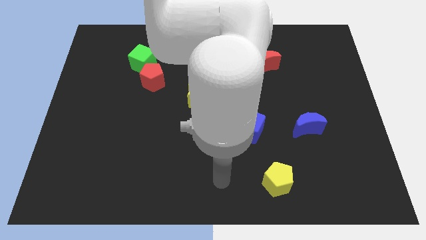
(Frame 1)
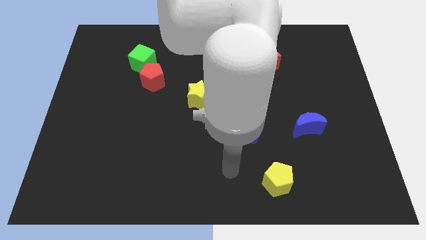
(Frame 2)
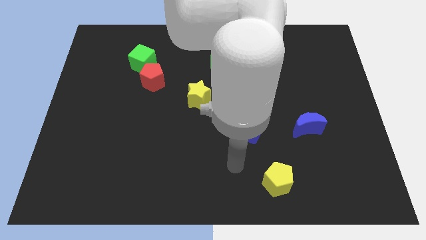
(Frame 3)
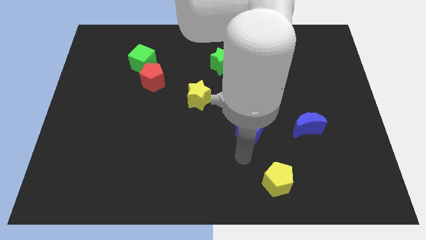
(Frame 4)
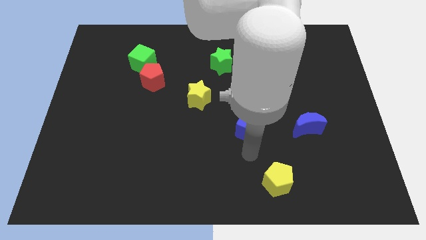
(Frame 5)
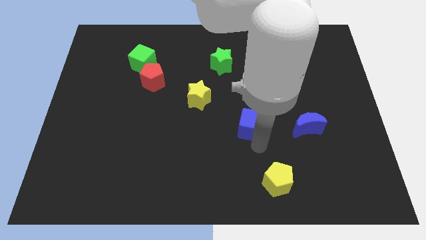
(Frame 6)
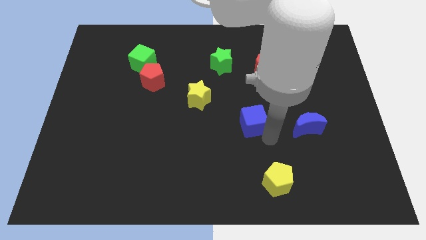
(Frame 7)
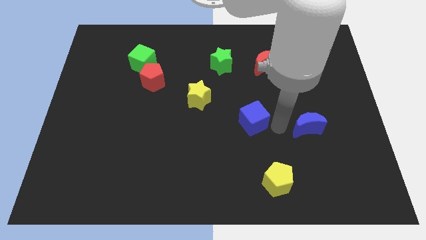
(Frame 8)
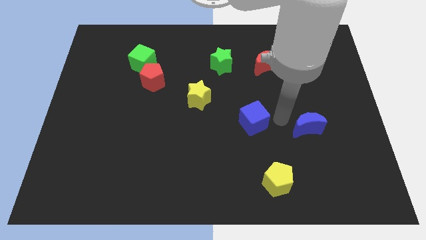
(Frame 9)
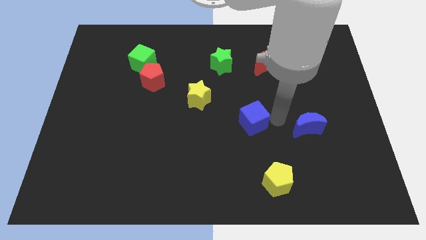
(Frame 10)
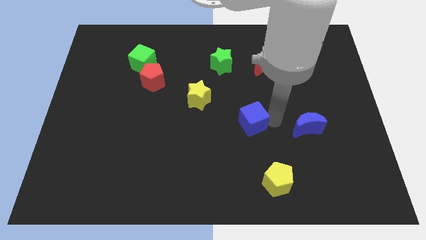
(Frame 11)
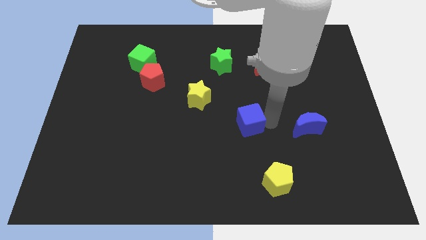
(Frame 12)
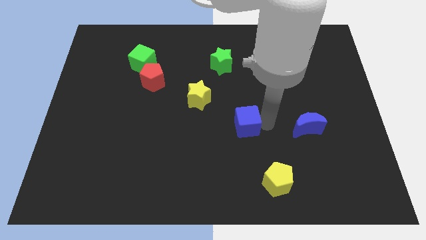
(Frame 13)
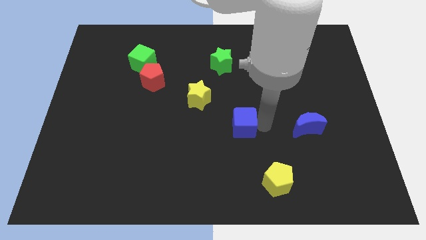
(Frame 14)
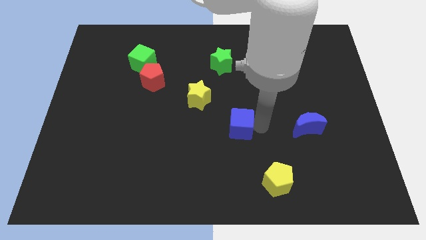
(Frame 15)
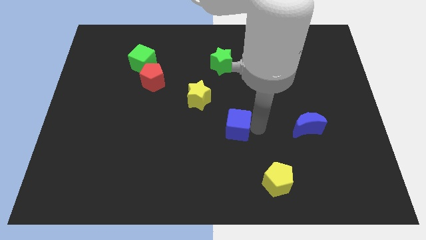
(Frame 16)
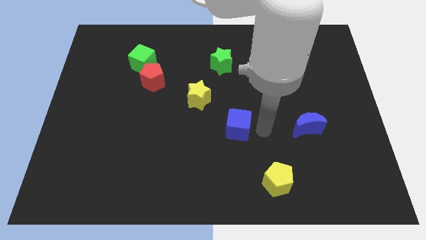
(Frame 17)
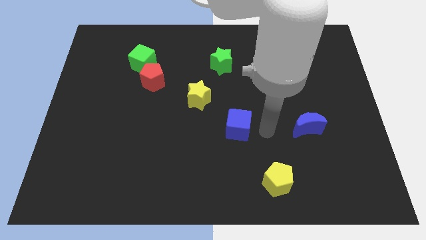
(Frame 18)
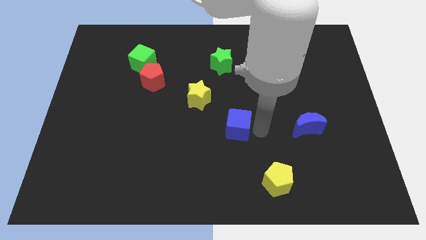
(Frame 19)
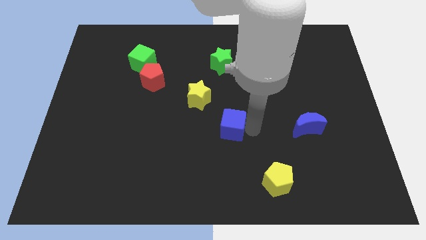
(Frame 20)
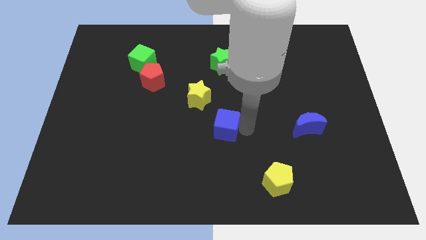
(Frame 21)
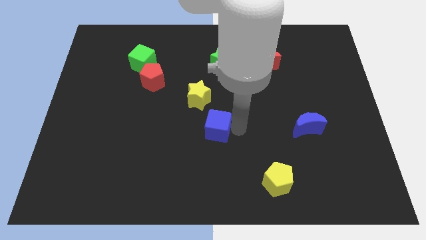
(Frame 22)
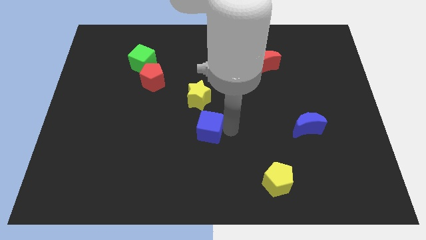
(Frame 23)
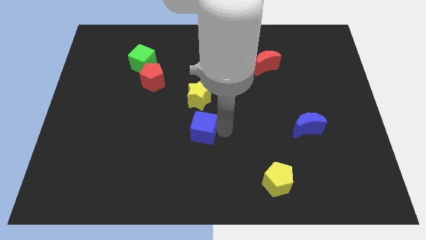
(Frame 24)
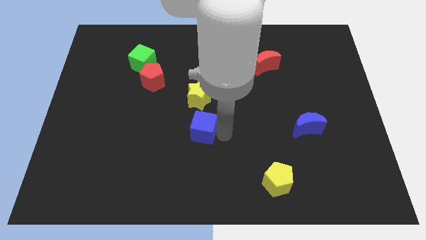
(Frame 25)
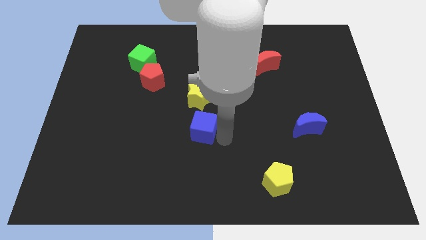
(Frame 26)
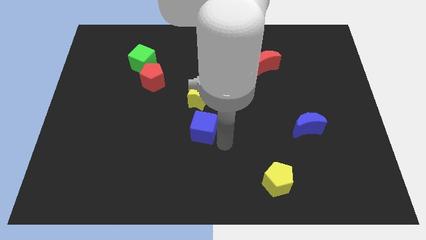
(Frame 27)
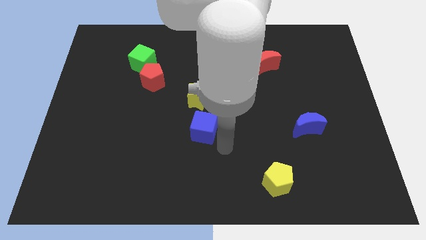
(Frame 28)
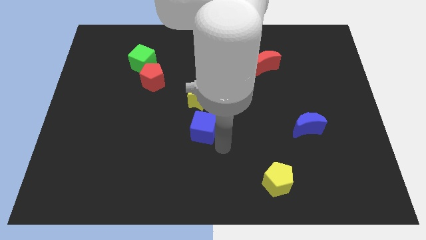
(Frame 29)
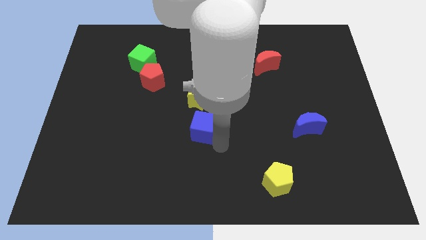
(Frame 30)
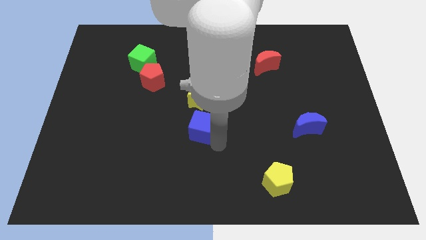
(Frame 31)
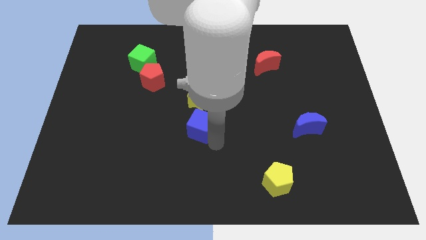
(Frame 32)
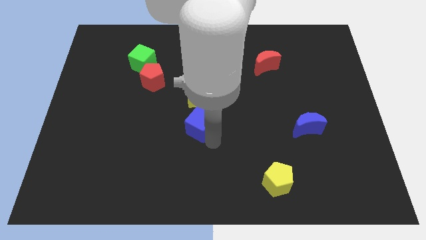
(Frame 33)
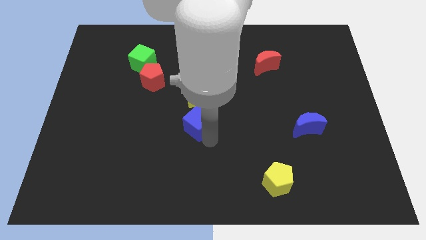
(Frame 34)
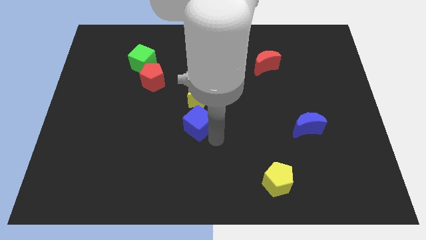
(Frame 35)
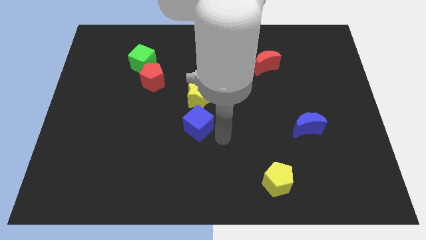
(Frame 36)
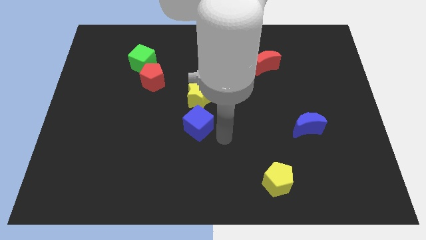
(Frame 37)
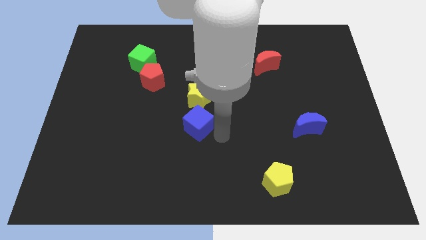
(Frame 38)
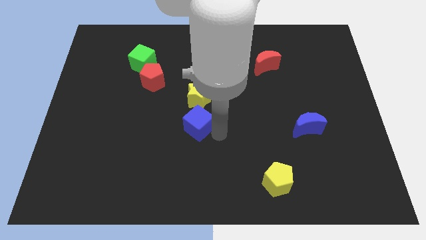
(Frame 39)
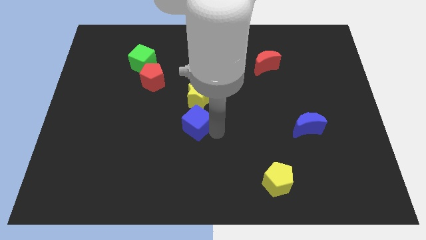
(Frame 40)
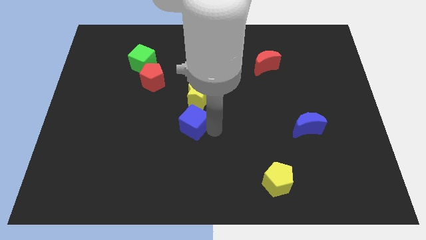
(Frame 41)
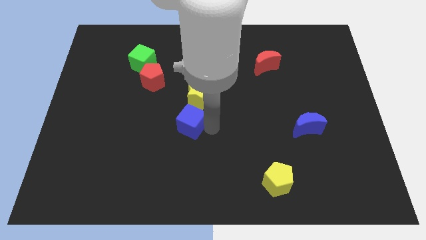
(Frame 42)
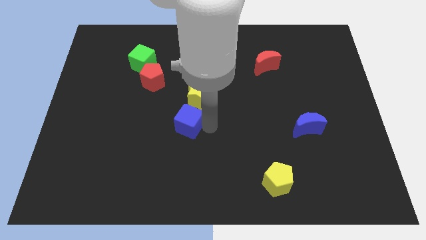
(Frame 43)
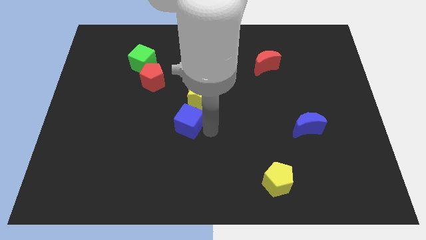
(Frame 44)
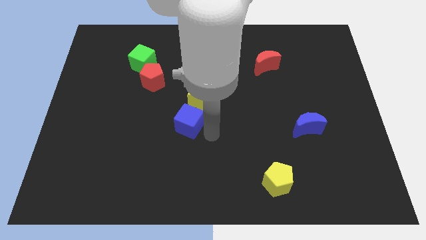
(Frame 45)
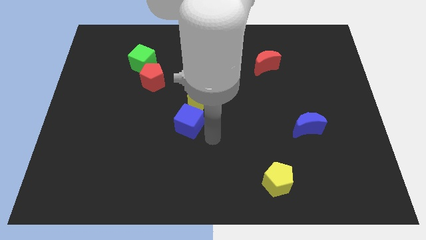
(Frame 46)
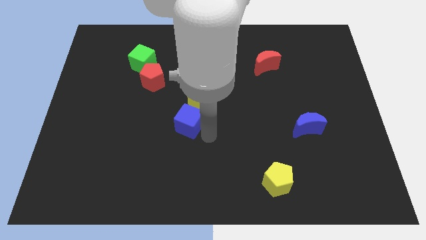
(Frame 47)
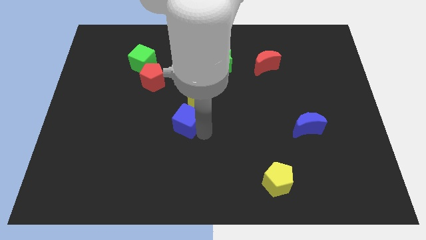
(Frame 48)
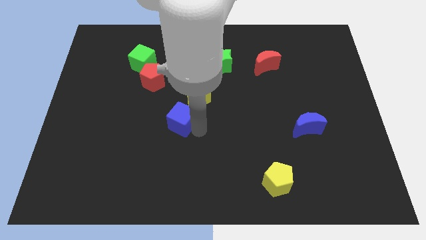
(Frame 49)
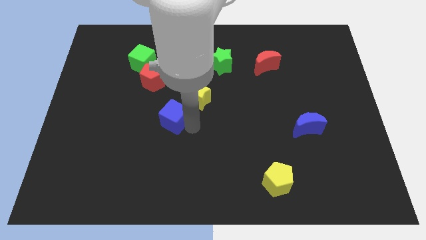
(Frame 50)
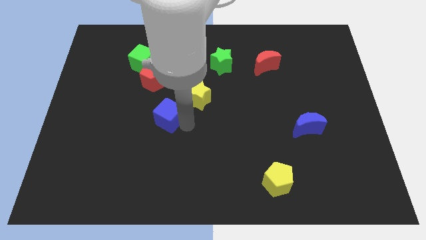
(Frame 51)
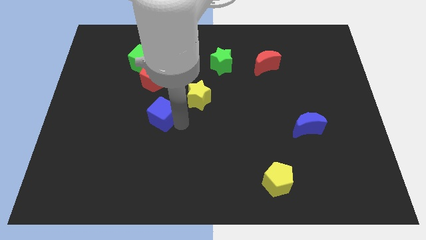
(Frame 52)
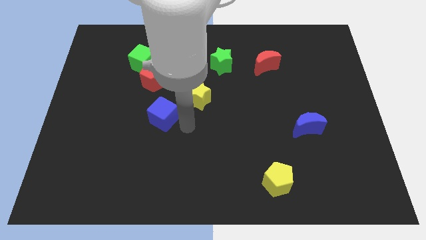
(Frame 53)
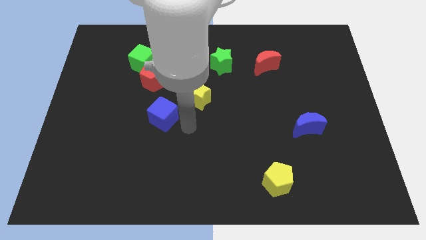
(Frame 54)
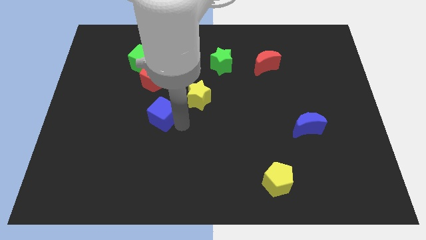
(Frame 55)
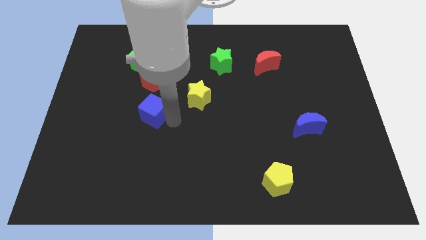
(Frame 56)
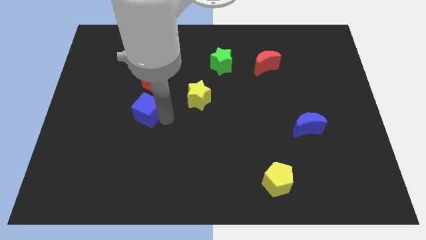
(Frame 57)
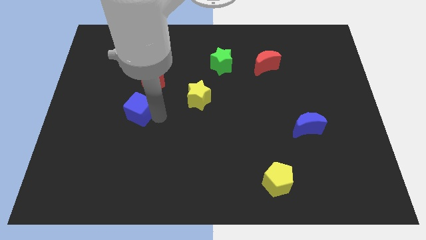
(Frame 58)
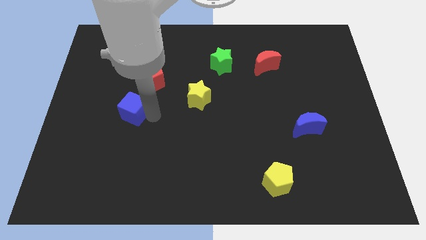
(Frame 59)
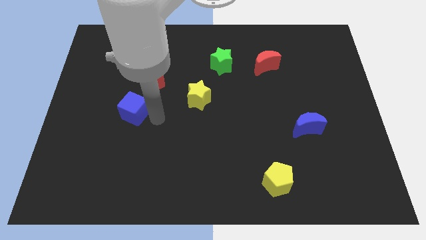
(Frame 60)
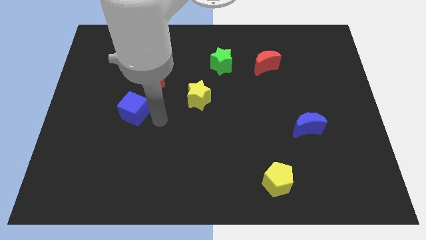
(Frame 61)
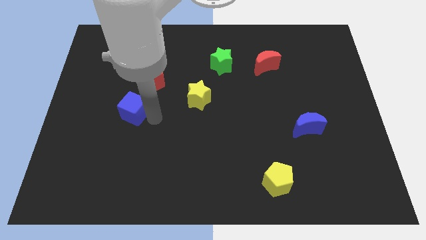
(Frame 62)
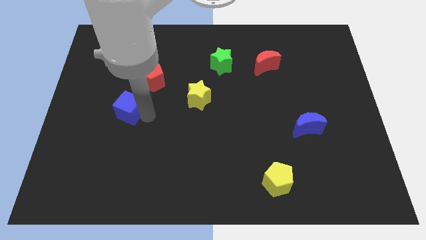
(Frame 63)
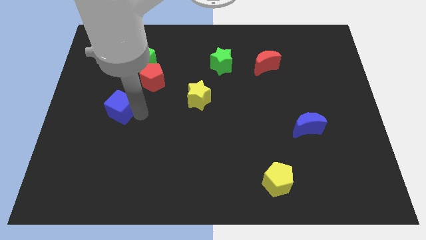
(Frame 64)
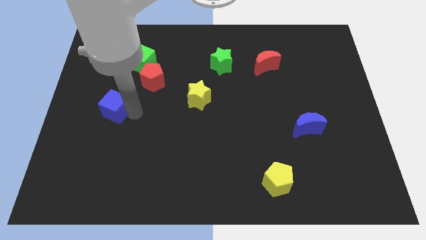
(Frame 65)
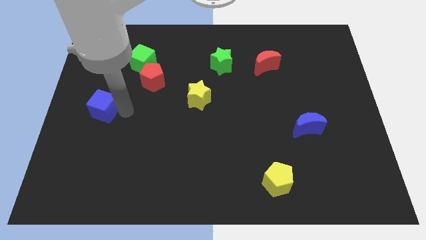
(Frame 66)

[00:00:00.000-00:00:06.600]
put the blue cube to the left side
